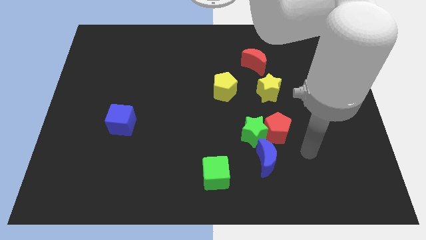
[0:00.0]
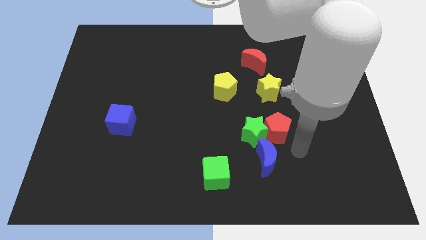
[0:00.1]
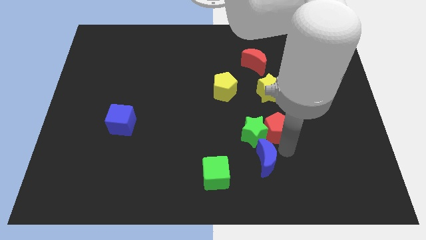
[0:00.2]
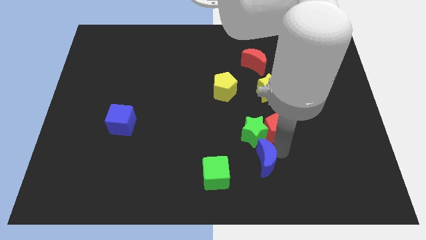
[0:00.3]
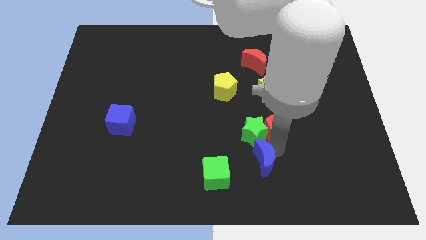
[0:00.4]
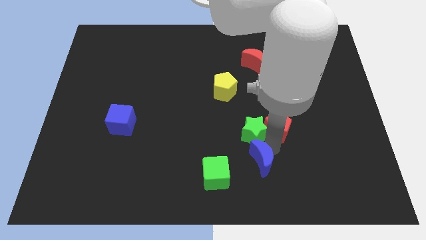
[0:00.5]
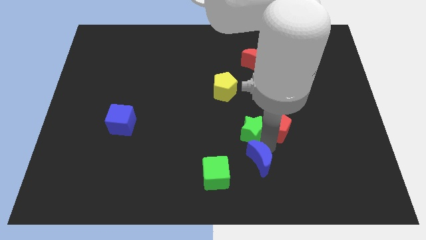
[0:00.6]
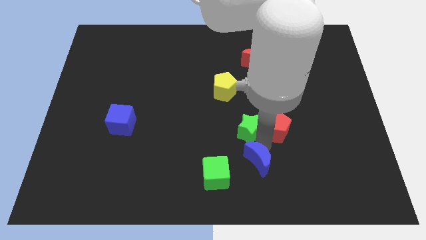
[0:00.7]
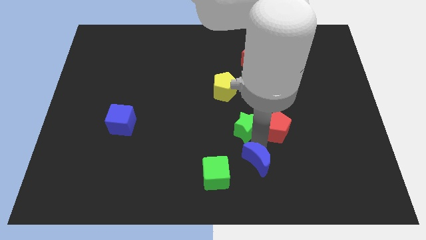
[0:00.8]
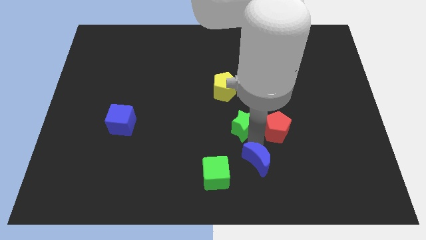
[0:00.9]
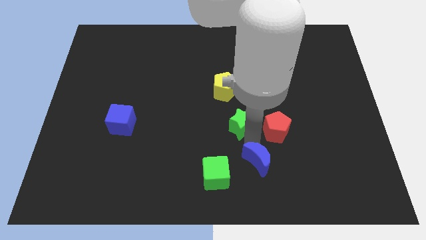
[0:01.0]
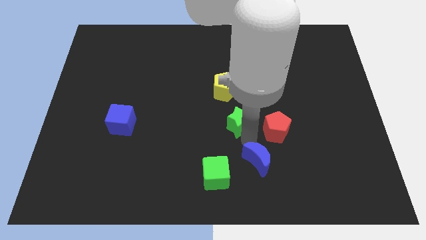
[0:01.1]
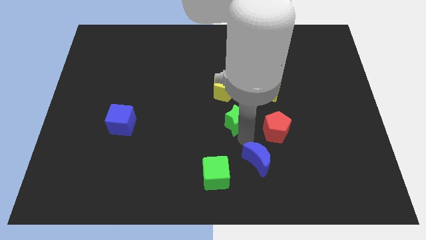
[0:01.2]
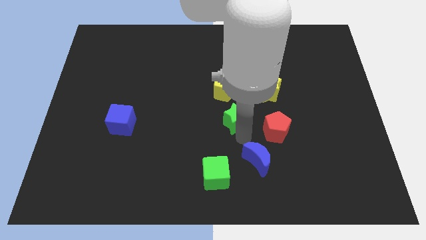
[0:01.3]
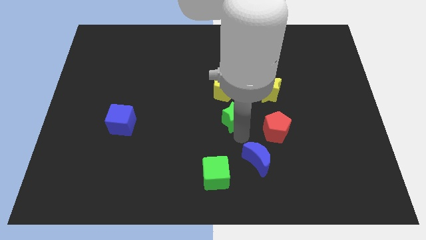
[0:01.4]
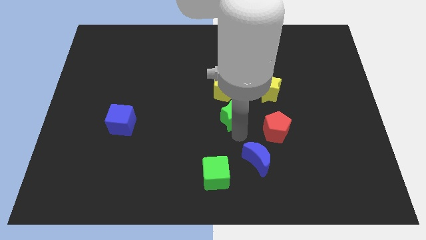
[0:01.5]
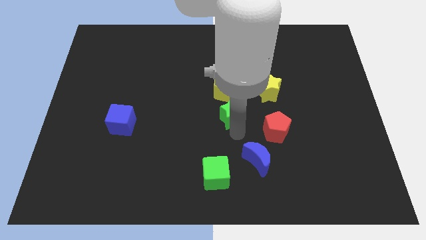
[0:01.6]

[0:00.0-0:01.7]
move the green star away from the red pentagon and blue moon

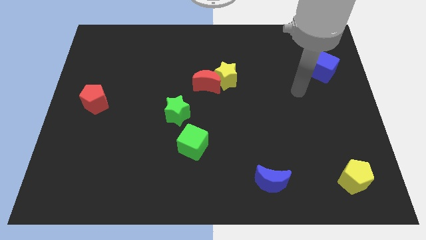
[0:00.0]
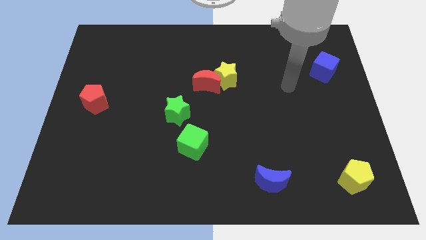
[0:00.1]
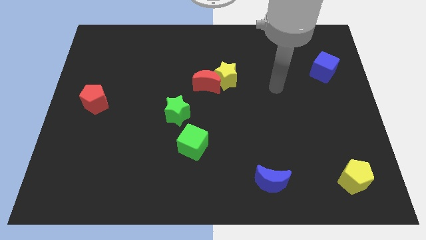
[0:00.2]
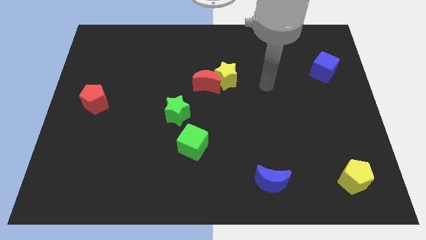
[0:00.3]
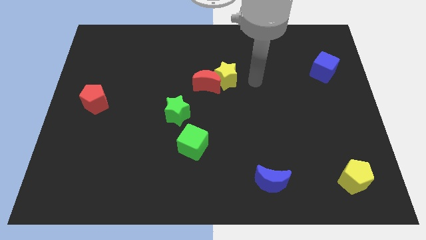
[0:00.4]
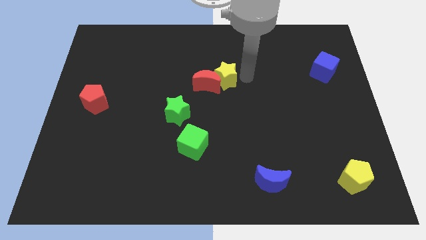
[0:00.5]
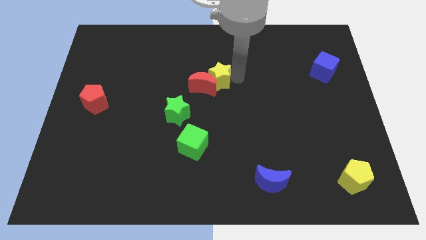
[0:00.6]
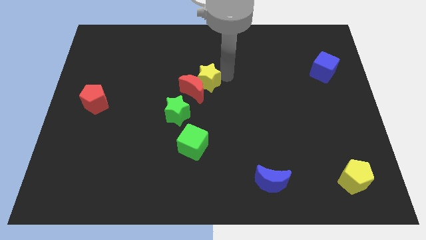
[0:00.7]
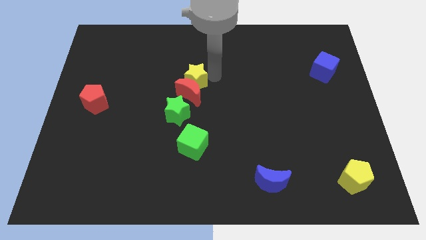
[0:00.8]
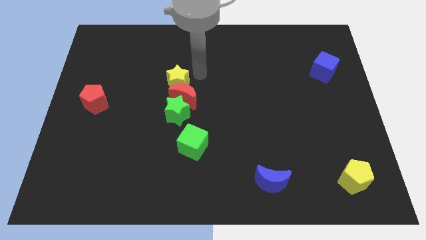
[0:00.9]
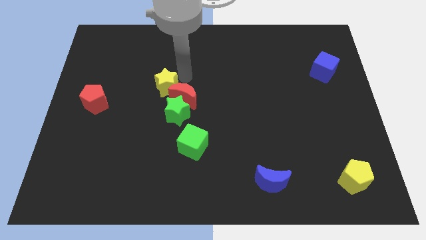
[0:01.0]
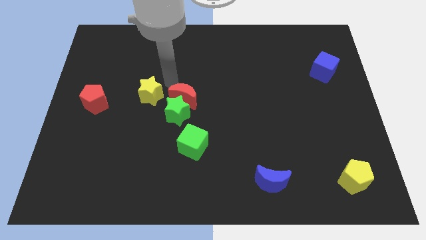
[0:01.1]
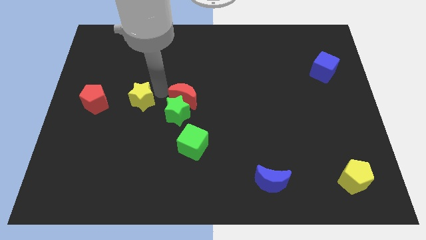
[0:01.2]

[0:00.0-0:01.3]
separate the red moon from the yellow star

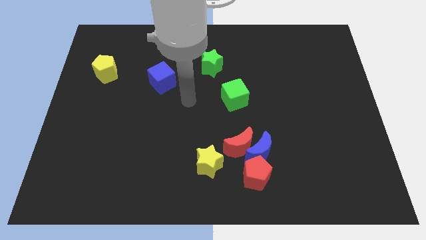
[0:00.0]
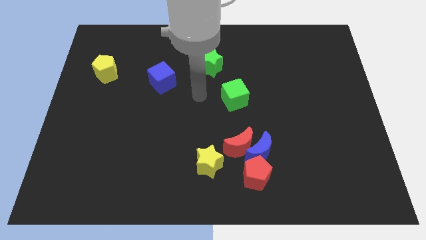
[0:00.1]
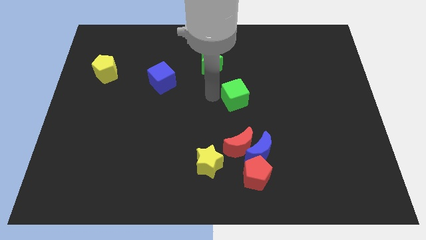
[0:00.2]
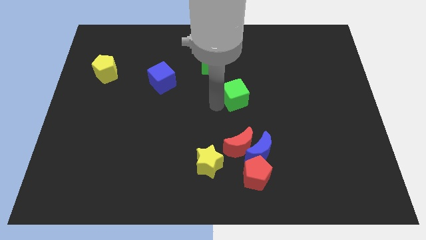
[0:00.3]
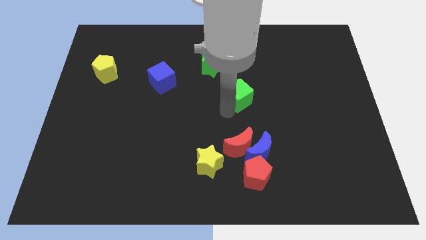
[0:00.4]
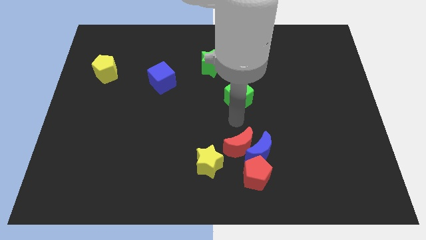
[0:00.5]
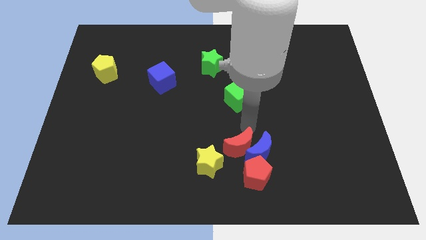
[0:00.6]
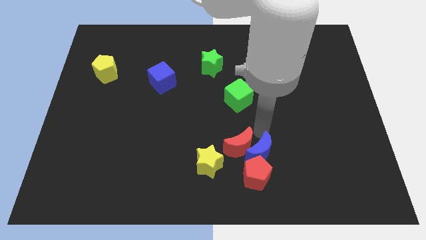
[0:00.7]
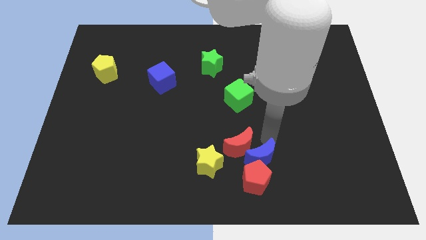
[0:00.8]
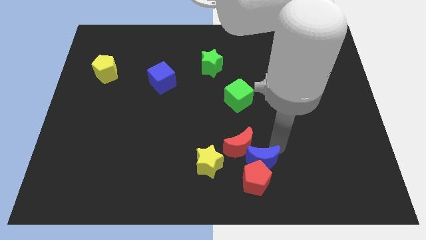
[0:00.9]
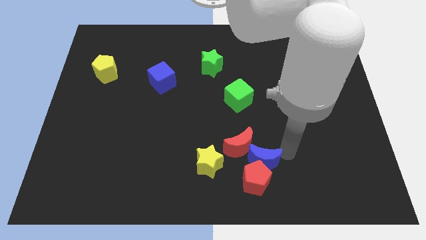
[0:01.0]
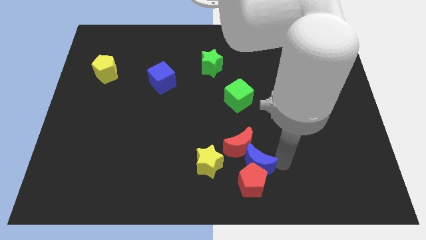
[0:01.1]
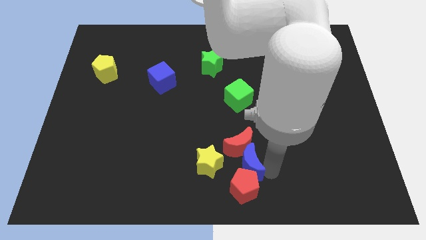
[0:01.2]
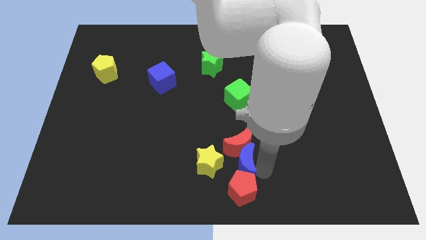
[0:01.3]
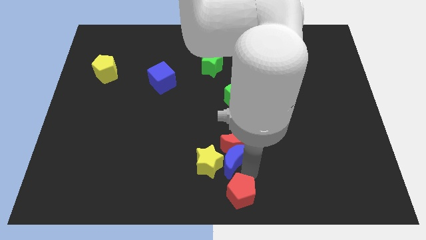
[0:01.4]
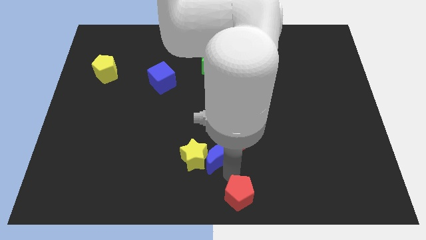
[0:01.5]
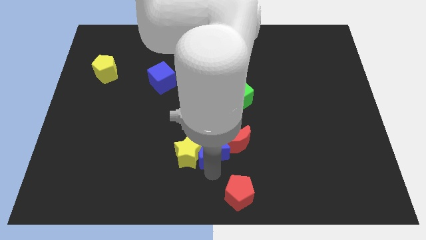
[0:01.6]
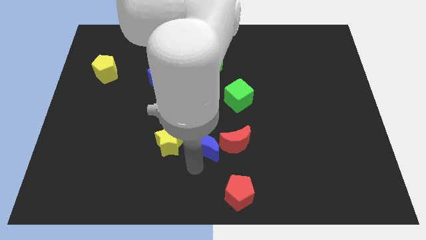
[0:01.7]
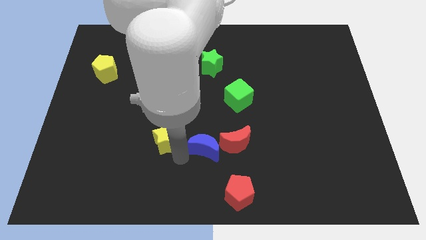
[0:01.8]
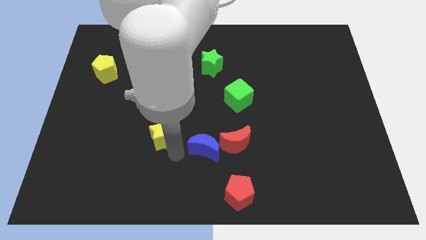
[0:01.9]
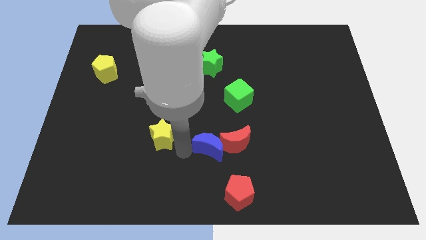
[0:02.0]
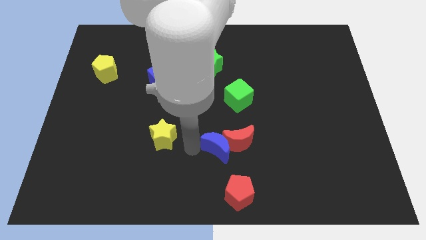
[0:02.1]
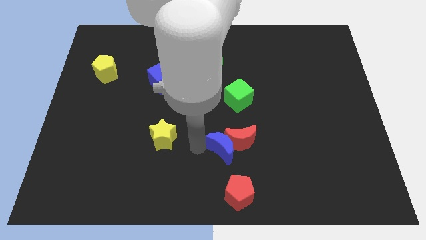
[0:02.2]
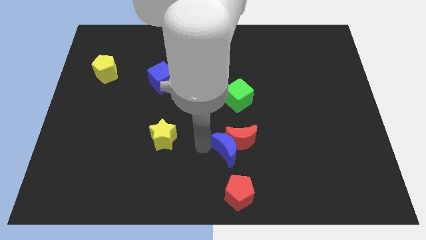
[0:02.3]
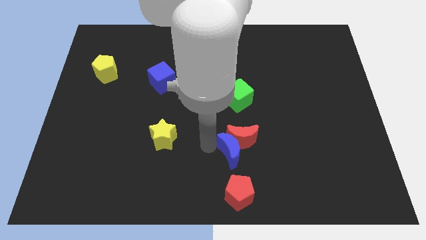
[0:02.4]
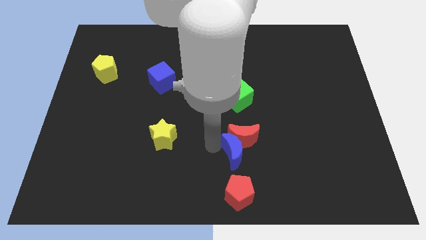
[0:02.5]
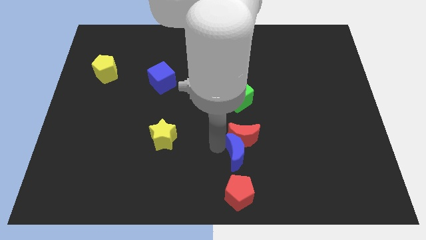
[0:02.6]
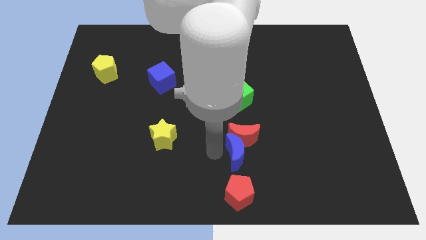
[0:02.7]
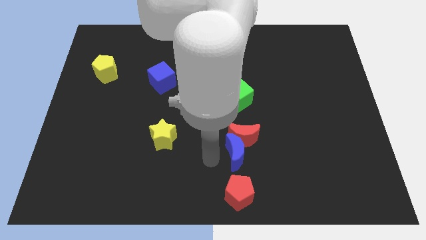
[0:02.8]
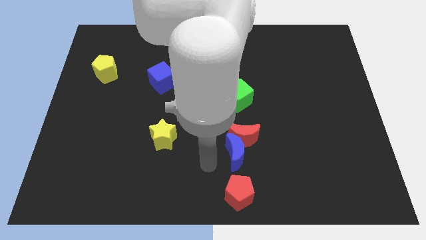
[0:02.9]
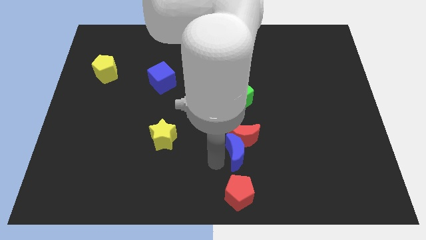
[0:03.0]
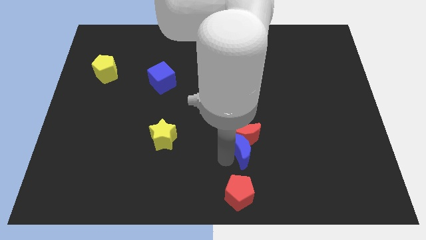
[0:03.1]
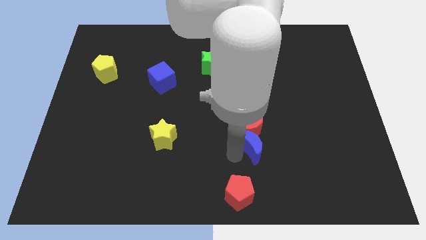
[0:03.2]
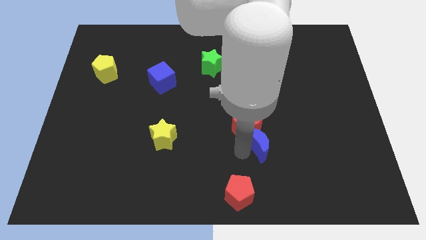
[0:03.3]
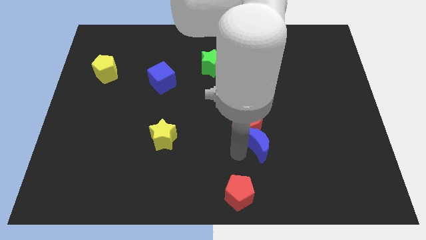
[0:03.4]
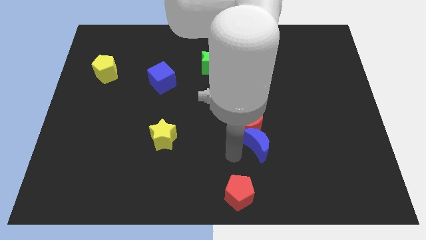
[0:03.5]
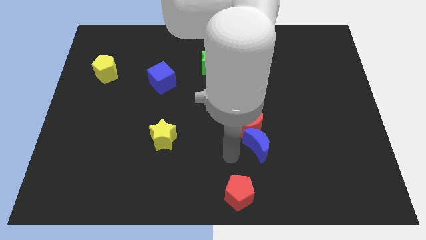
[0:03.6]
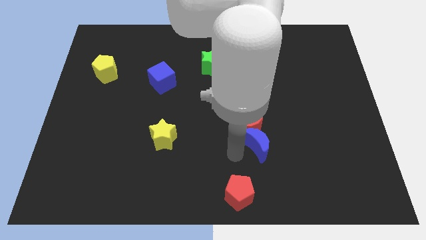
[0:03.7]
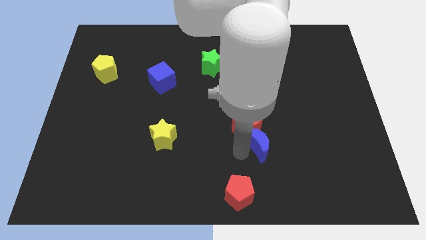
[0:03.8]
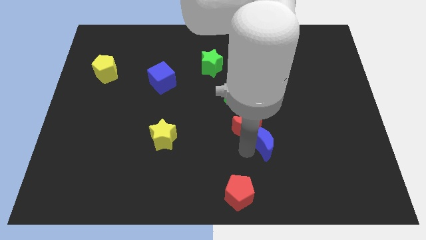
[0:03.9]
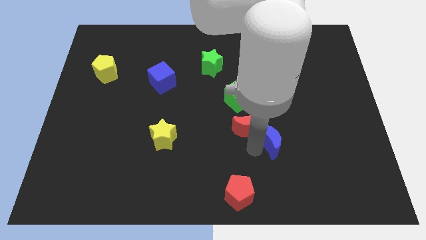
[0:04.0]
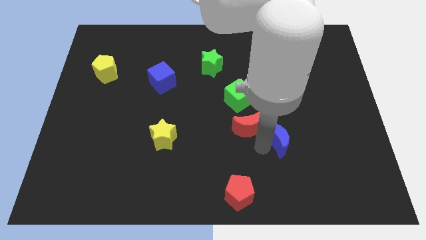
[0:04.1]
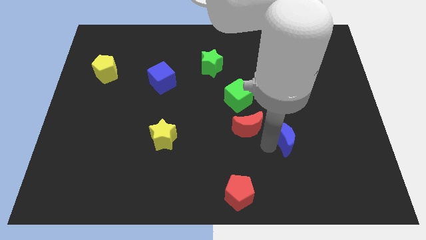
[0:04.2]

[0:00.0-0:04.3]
move the blue moon away from the red moon and red pentagon

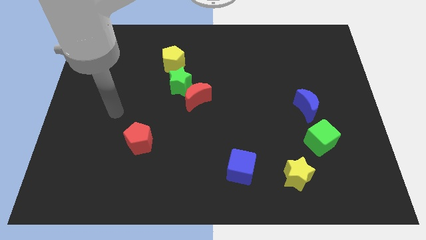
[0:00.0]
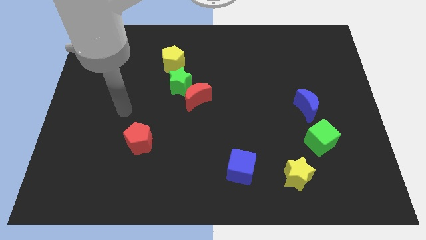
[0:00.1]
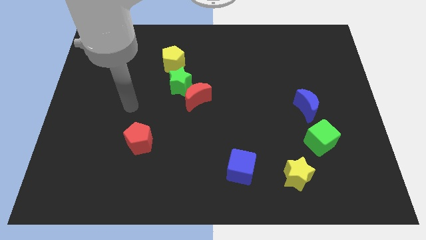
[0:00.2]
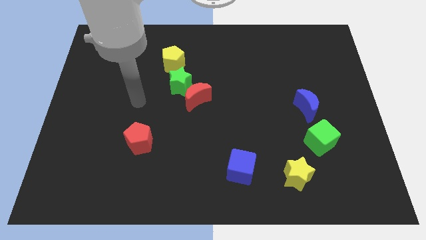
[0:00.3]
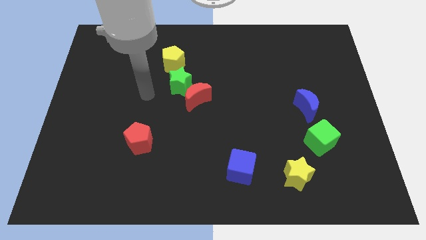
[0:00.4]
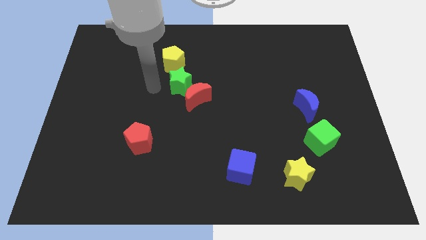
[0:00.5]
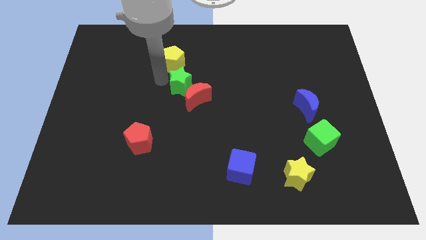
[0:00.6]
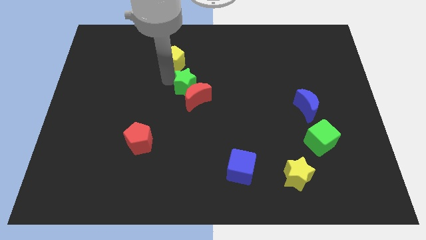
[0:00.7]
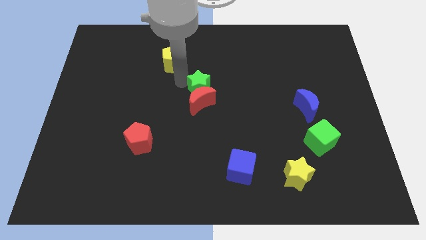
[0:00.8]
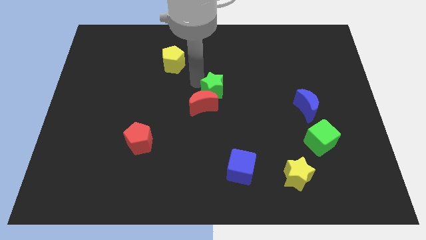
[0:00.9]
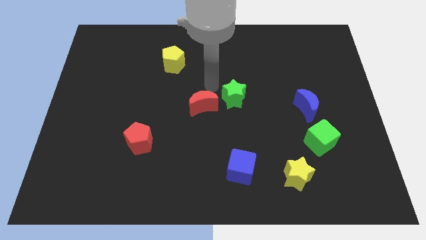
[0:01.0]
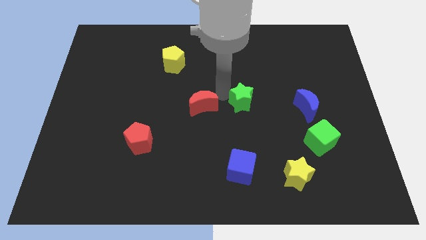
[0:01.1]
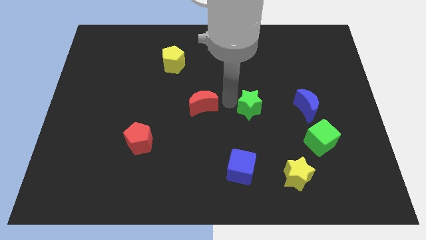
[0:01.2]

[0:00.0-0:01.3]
move the red moon away from the green star

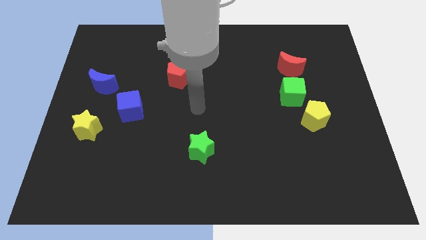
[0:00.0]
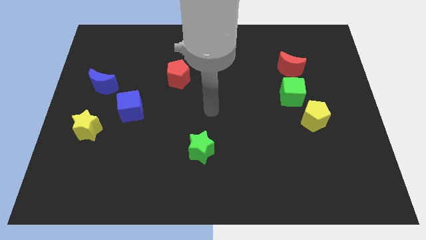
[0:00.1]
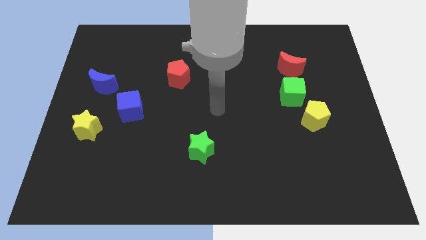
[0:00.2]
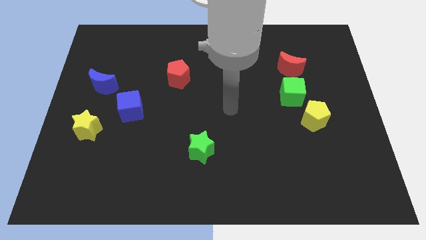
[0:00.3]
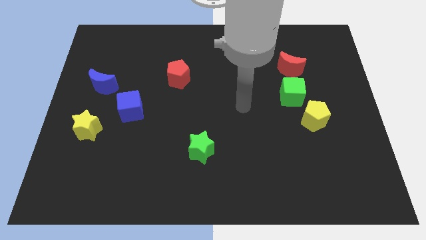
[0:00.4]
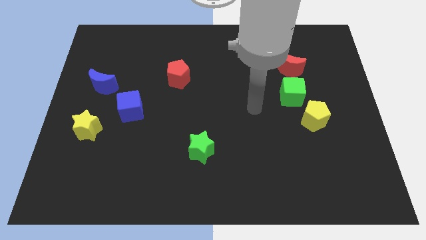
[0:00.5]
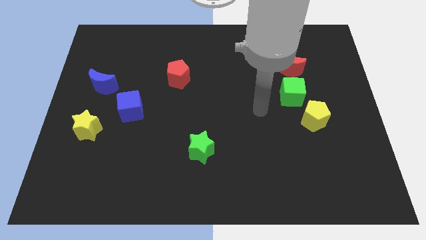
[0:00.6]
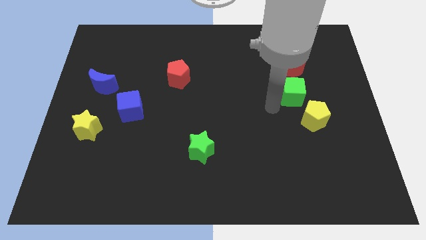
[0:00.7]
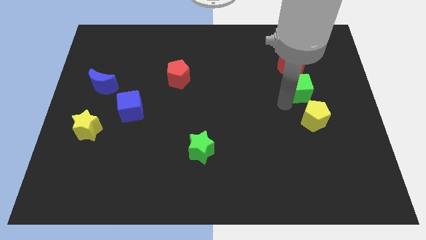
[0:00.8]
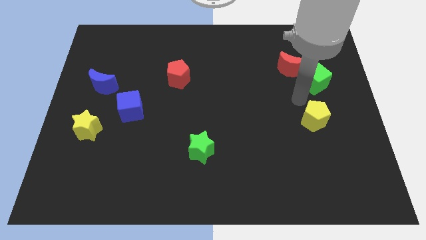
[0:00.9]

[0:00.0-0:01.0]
move the yellow pentagon away from the green cube
